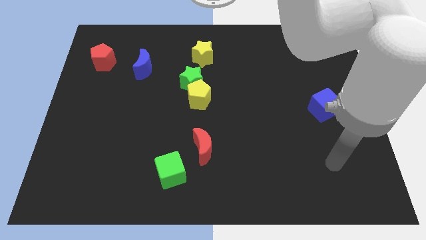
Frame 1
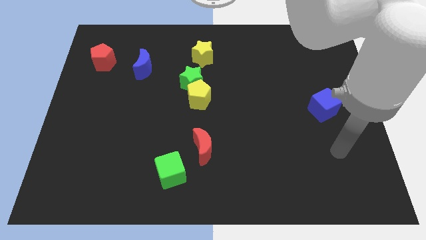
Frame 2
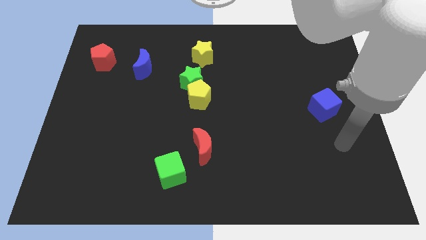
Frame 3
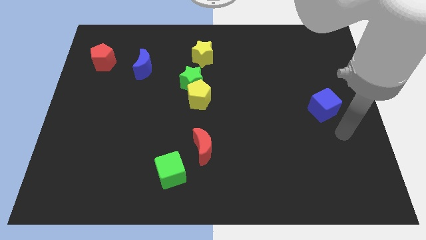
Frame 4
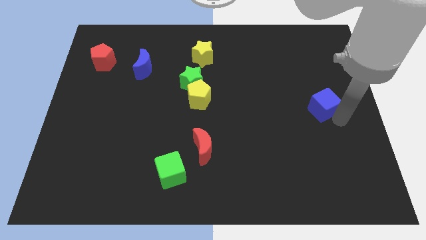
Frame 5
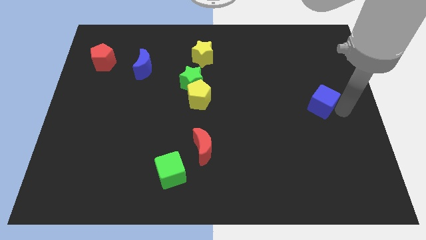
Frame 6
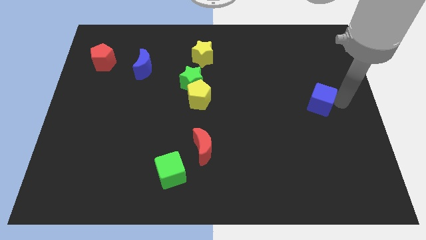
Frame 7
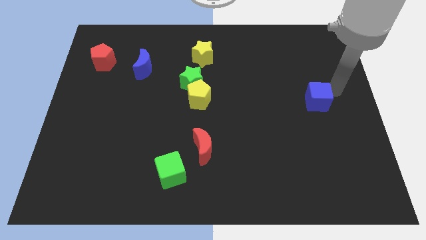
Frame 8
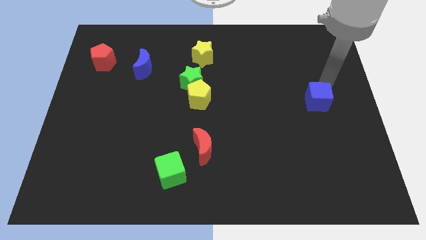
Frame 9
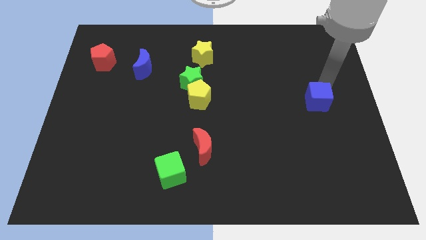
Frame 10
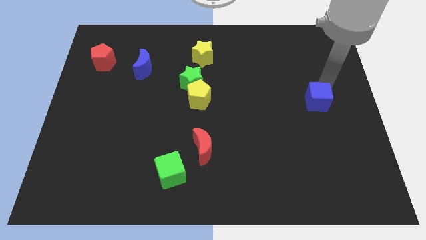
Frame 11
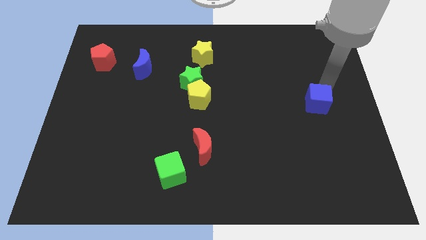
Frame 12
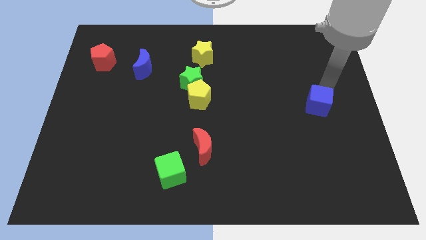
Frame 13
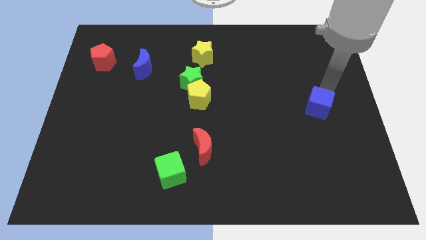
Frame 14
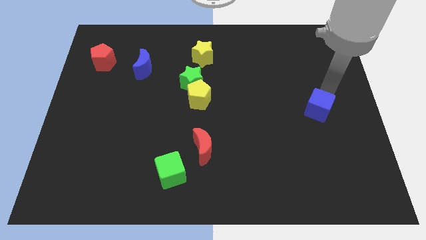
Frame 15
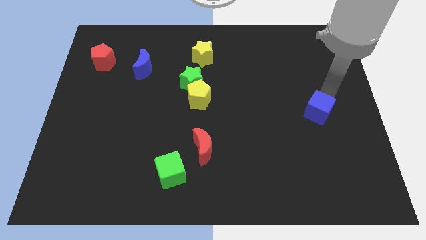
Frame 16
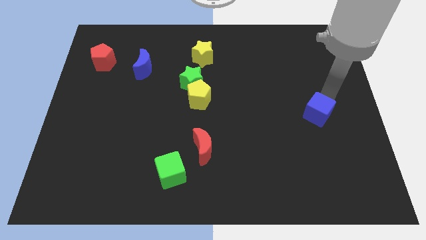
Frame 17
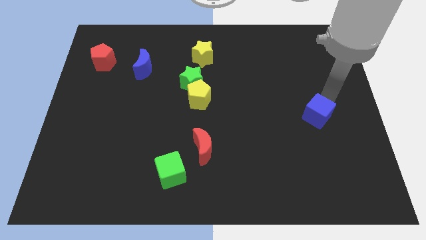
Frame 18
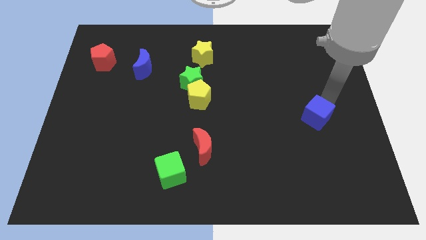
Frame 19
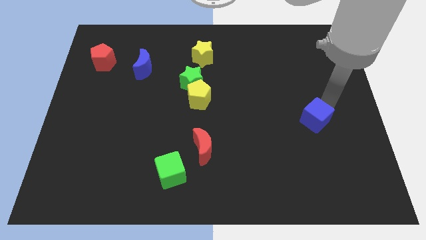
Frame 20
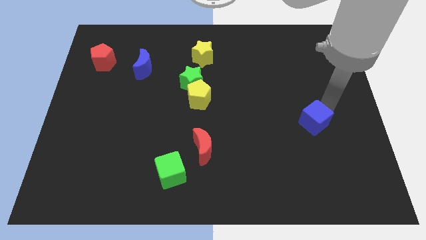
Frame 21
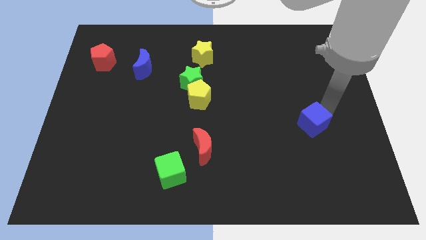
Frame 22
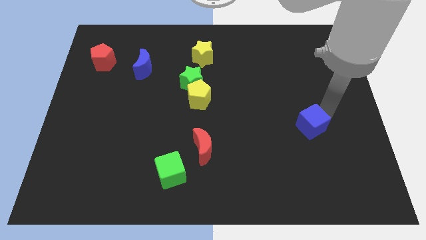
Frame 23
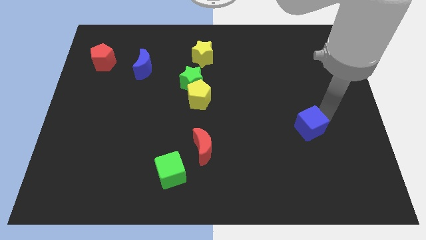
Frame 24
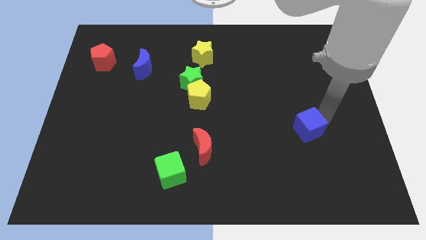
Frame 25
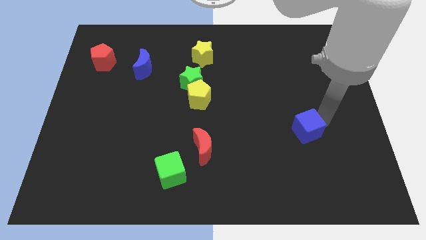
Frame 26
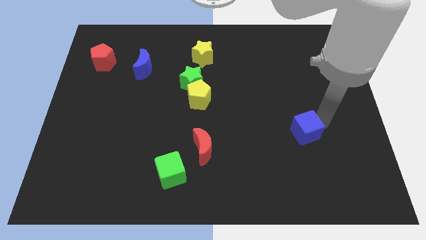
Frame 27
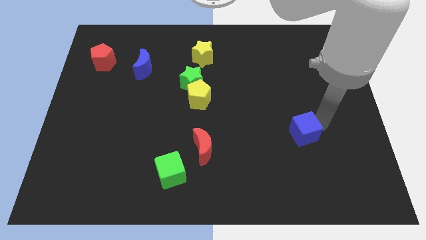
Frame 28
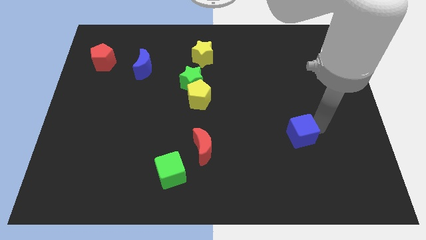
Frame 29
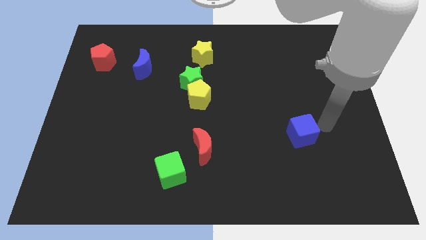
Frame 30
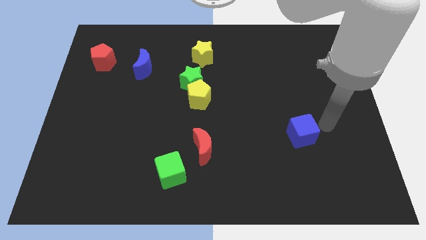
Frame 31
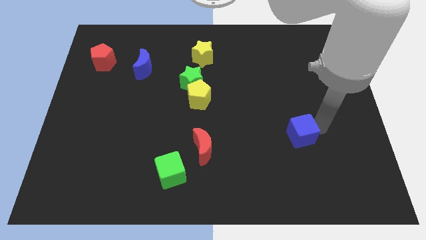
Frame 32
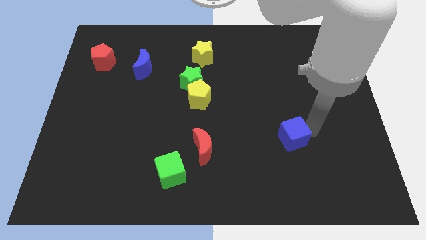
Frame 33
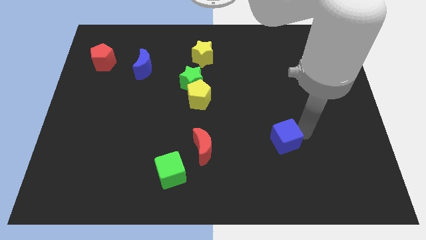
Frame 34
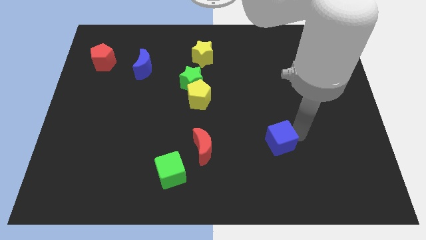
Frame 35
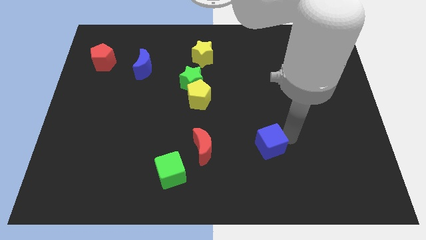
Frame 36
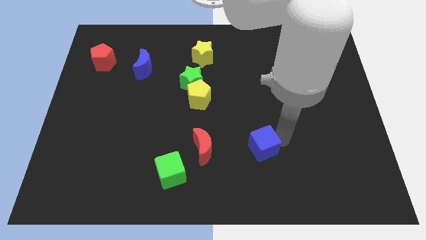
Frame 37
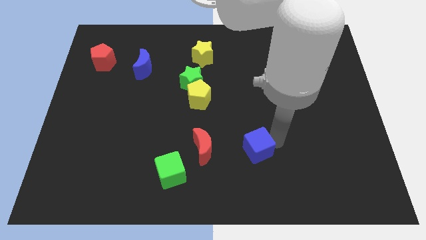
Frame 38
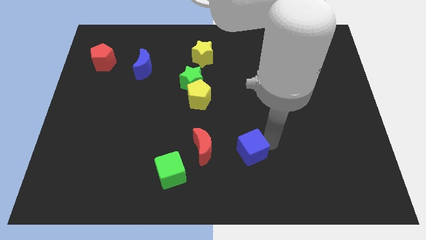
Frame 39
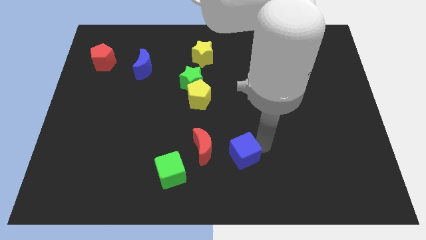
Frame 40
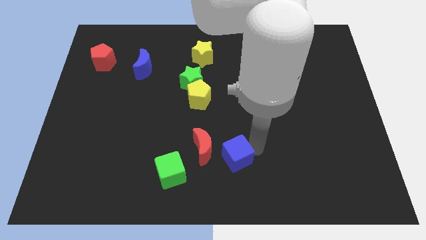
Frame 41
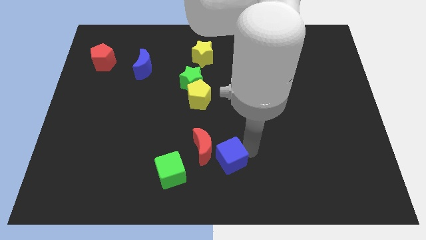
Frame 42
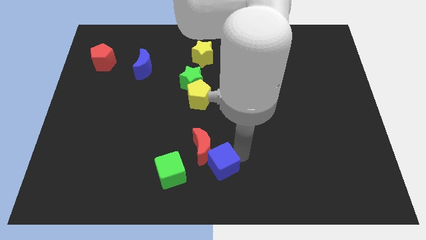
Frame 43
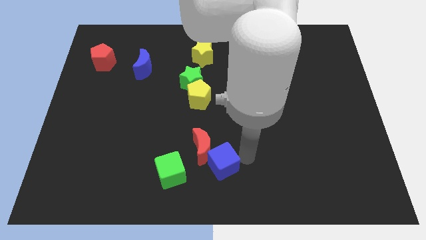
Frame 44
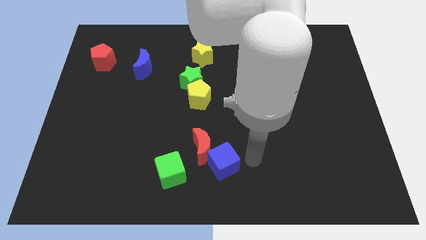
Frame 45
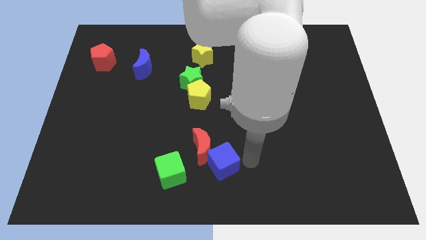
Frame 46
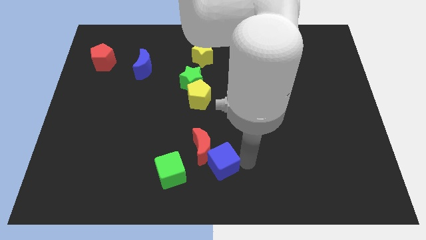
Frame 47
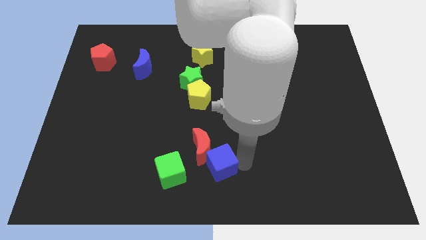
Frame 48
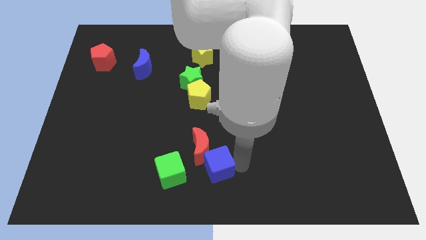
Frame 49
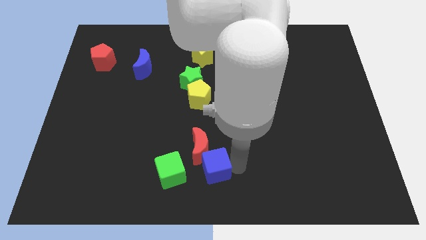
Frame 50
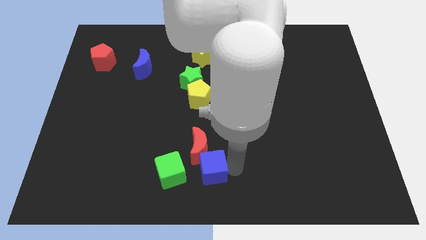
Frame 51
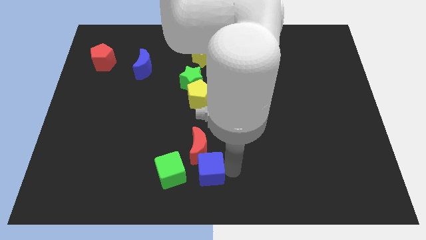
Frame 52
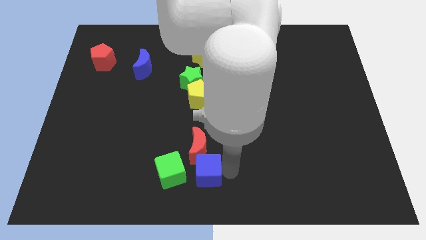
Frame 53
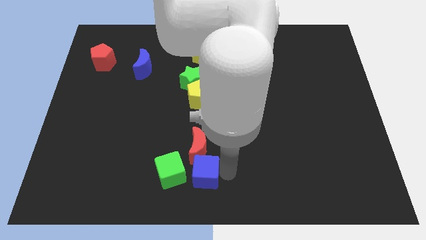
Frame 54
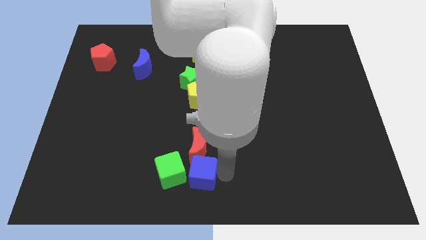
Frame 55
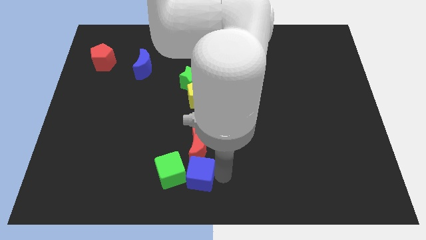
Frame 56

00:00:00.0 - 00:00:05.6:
slide the blue cube next to the green cube

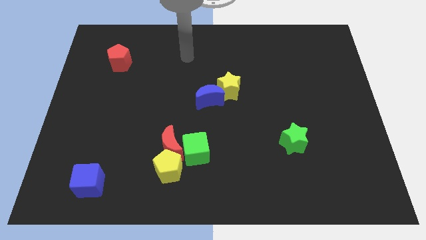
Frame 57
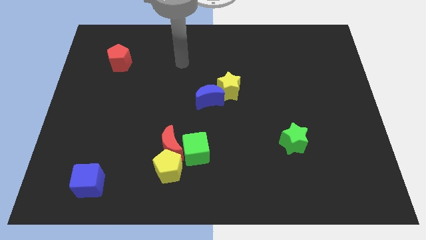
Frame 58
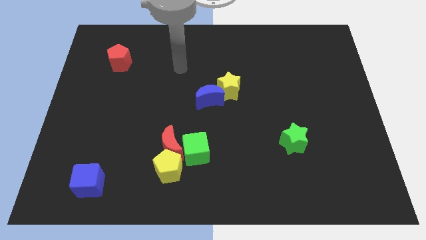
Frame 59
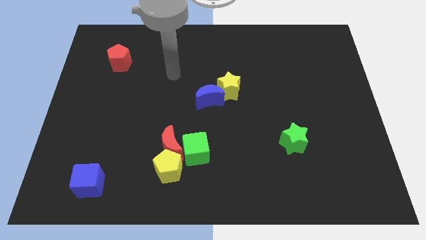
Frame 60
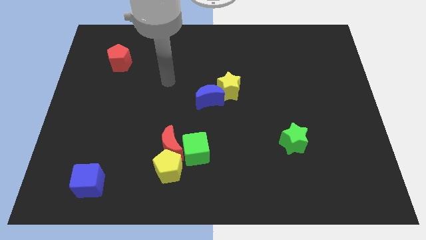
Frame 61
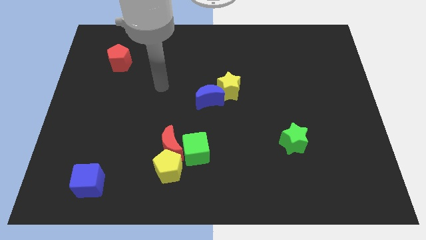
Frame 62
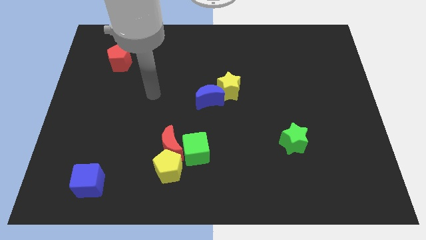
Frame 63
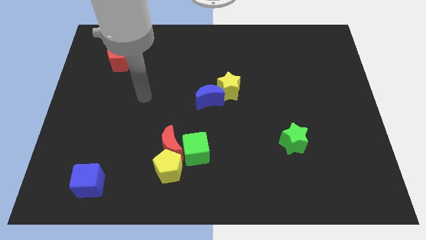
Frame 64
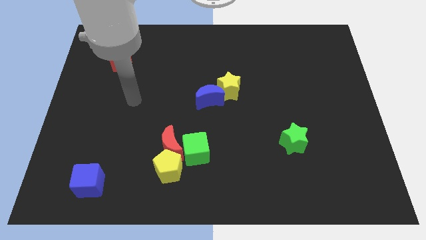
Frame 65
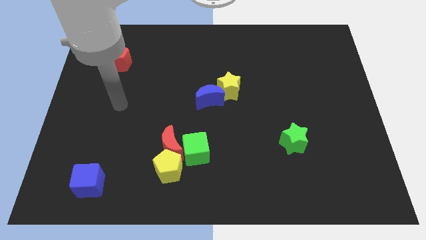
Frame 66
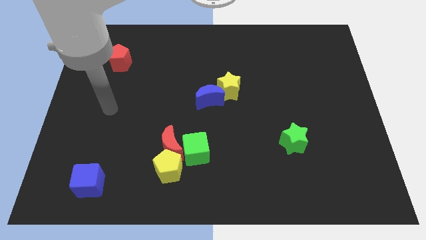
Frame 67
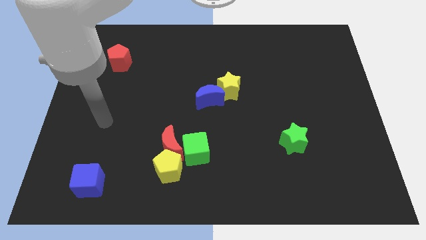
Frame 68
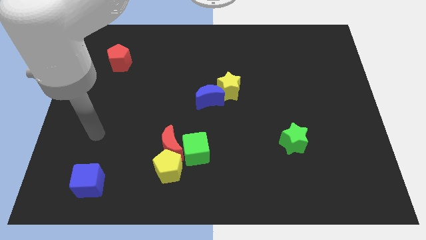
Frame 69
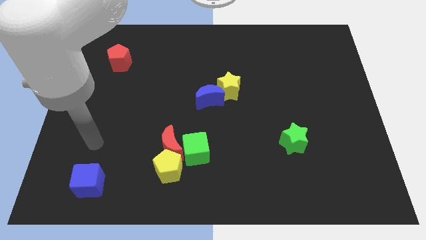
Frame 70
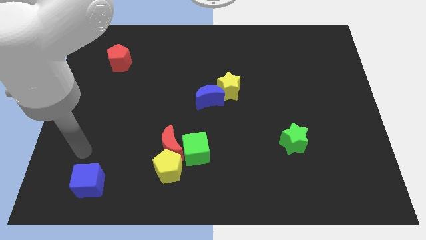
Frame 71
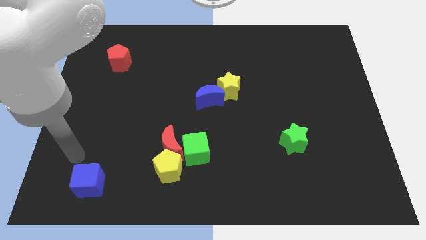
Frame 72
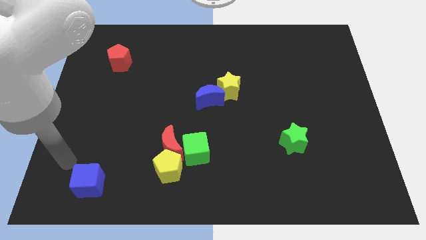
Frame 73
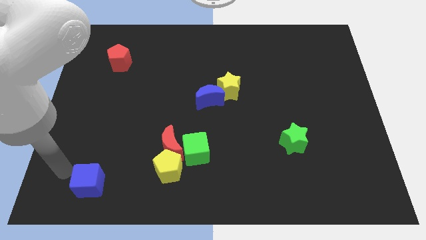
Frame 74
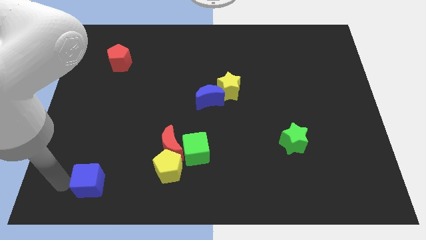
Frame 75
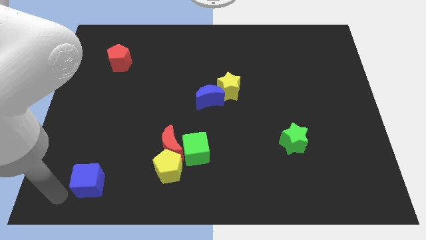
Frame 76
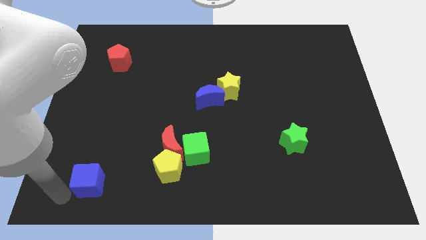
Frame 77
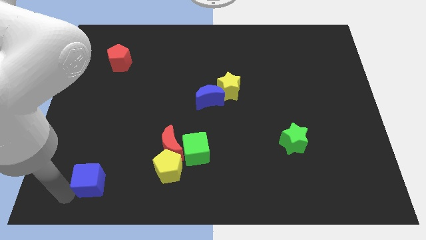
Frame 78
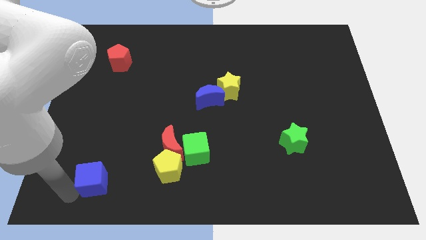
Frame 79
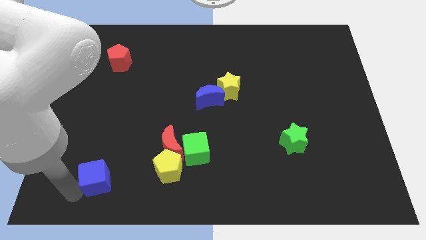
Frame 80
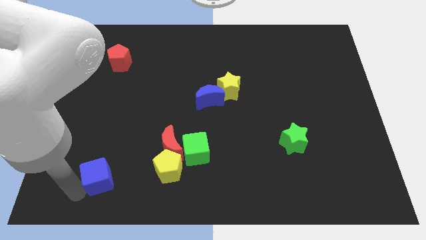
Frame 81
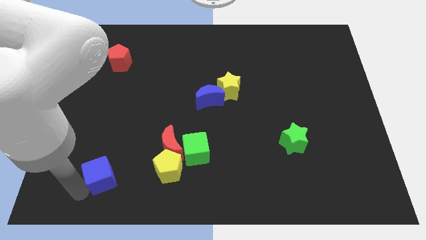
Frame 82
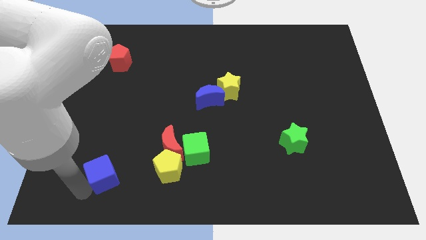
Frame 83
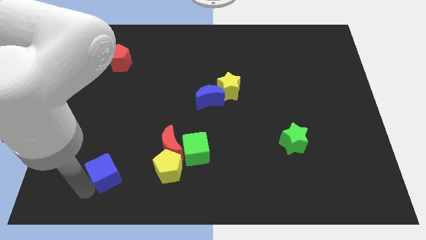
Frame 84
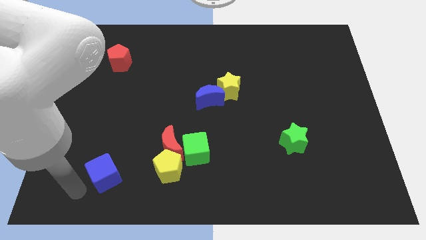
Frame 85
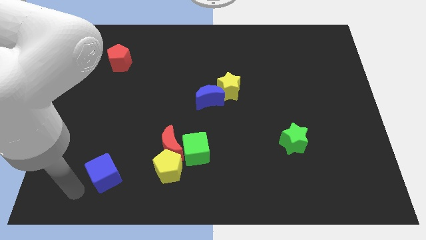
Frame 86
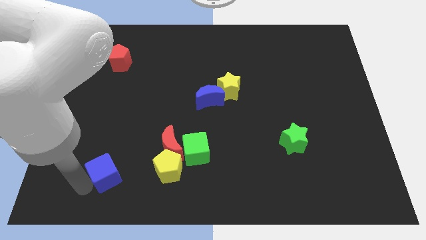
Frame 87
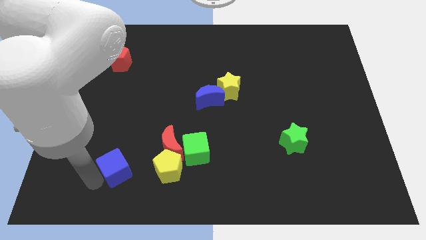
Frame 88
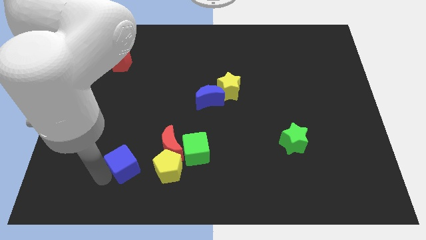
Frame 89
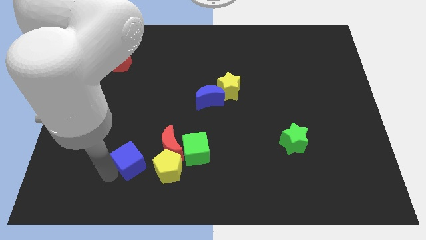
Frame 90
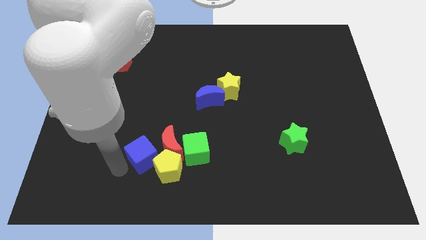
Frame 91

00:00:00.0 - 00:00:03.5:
put the blue cube close to the red moon
